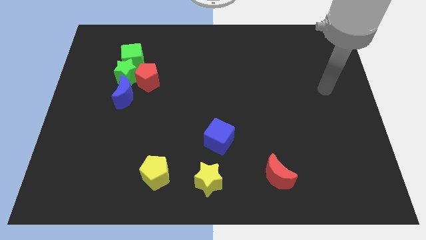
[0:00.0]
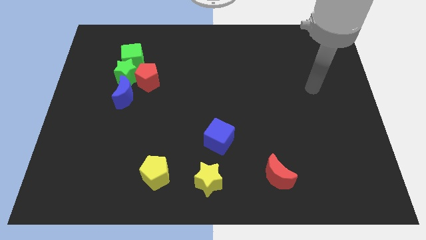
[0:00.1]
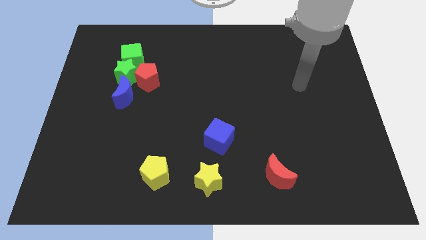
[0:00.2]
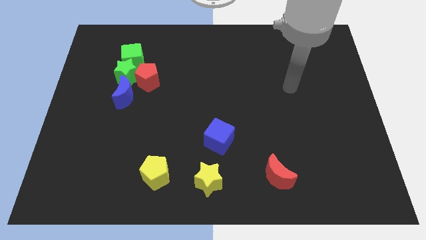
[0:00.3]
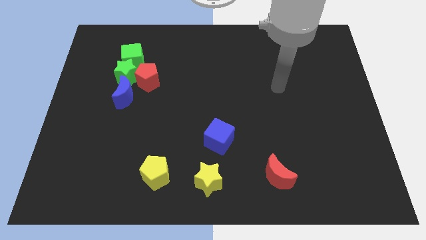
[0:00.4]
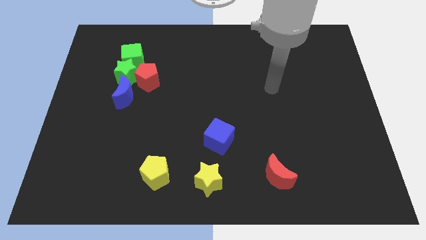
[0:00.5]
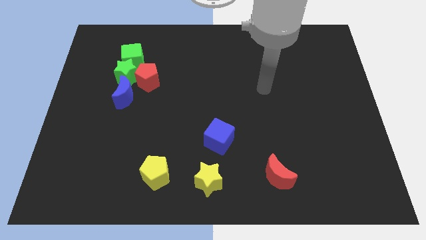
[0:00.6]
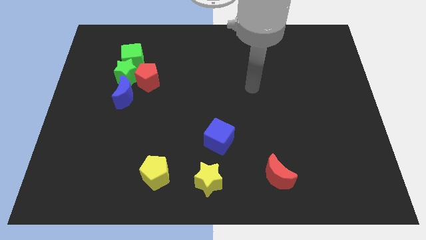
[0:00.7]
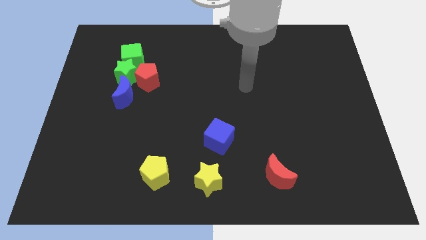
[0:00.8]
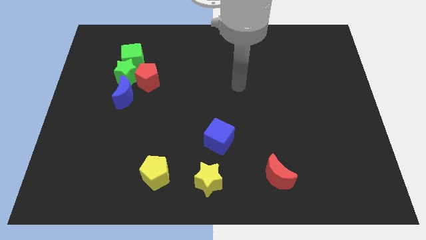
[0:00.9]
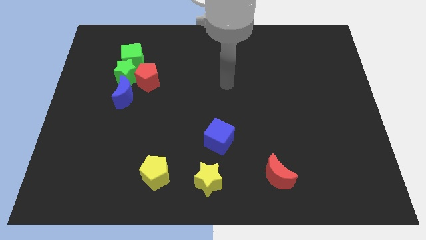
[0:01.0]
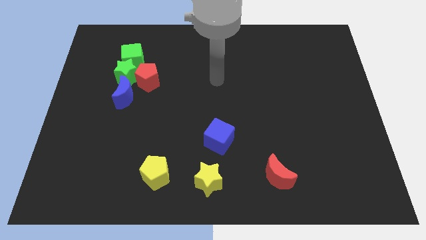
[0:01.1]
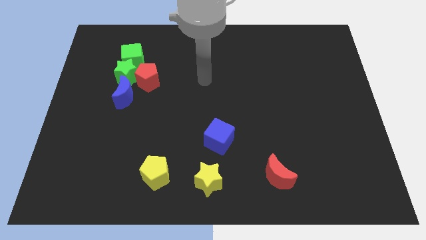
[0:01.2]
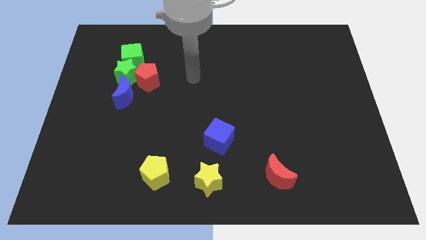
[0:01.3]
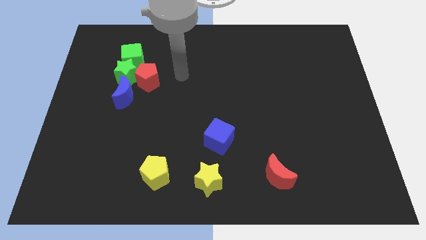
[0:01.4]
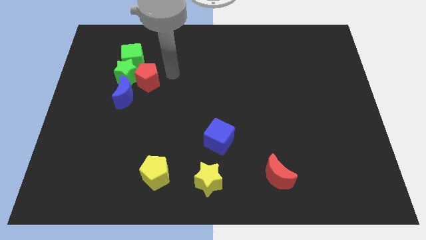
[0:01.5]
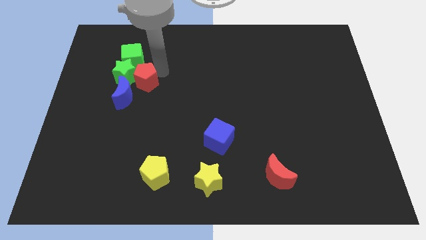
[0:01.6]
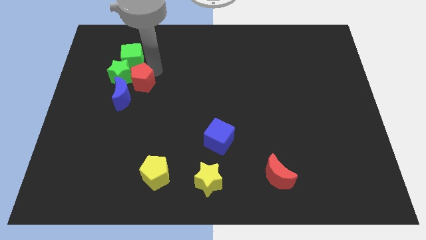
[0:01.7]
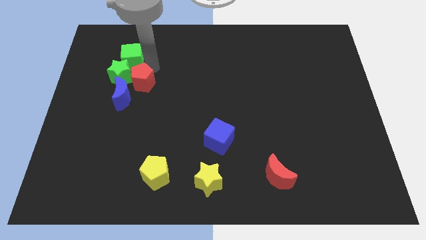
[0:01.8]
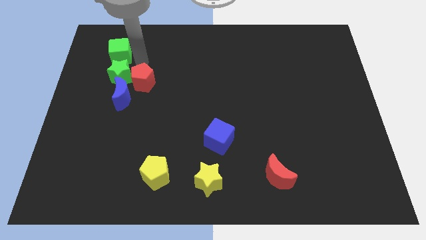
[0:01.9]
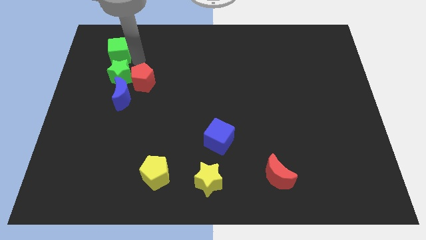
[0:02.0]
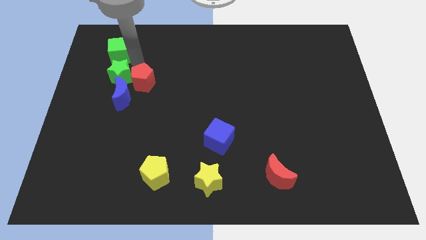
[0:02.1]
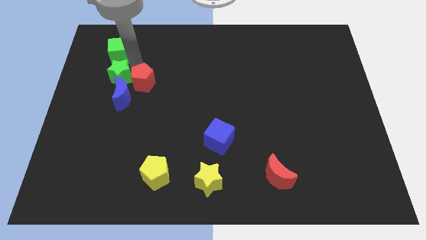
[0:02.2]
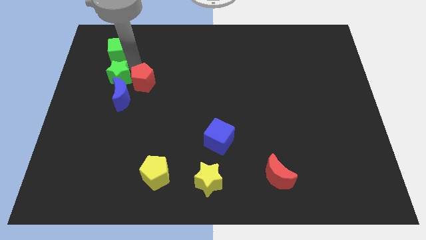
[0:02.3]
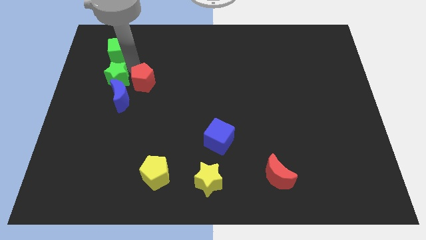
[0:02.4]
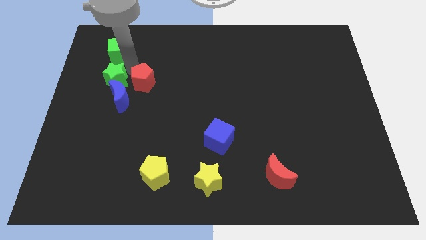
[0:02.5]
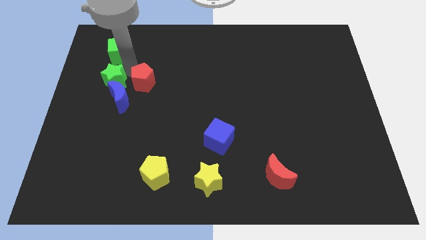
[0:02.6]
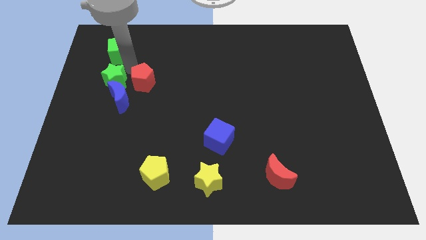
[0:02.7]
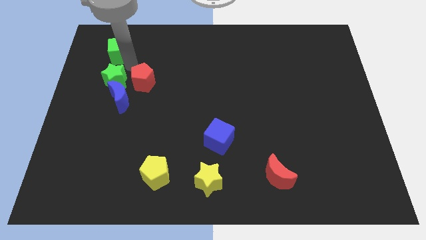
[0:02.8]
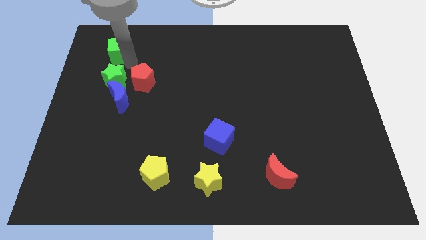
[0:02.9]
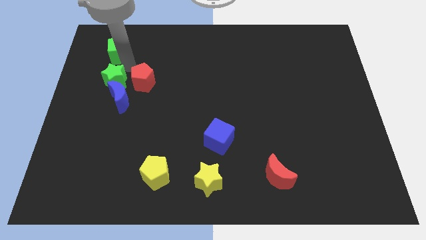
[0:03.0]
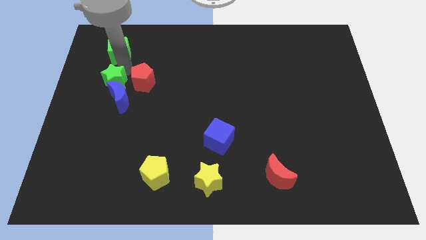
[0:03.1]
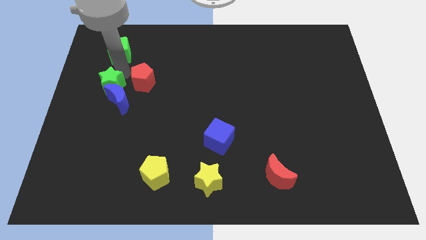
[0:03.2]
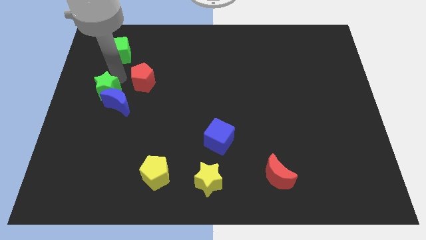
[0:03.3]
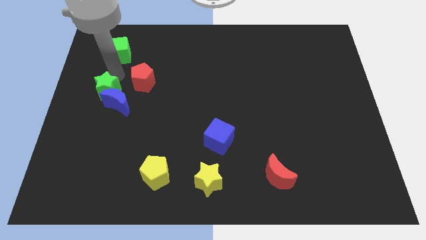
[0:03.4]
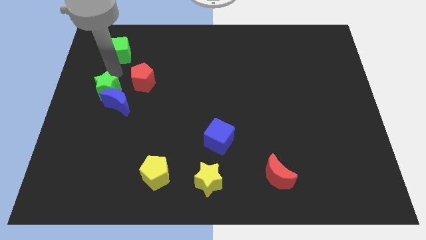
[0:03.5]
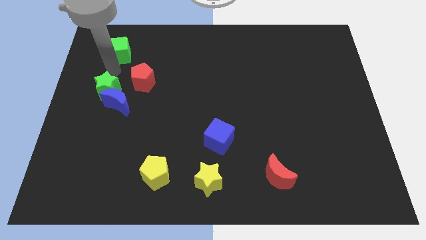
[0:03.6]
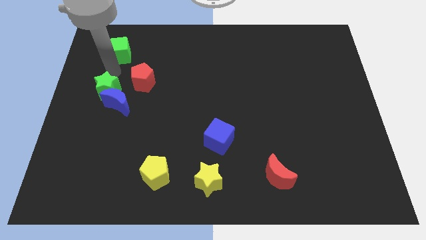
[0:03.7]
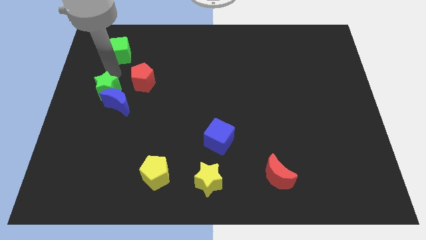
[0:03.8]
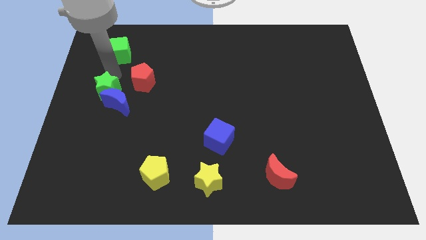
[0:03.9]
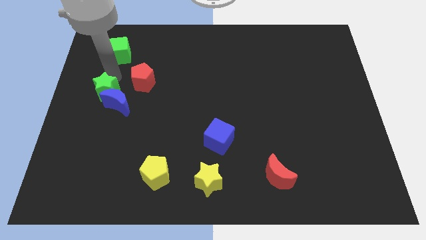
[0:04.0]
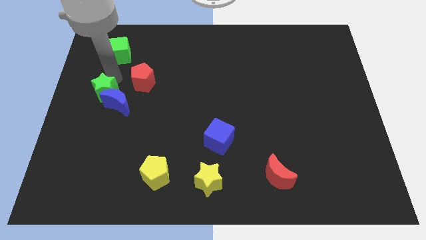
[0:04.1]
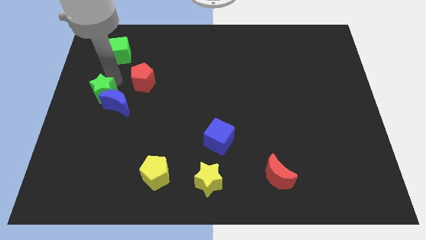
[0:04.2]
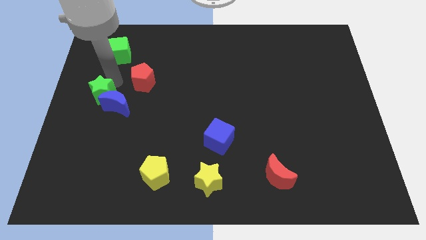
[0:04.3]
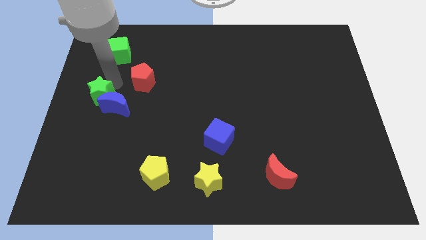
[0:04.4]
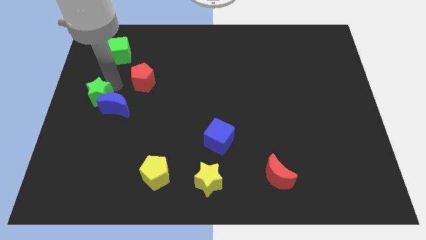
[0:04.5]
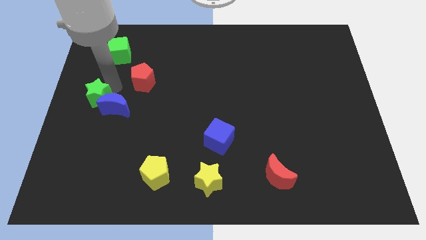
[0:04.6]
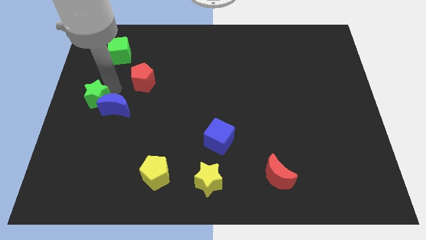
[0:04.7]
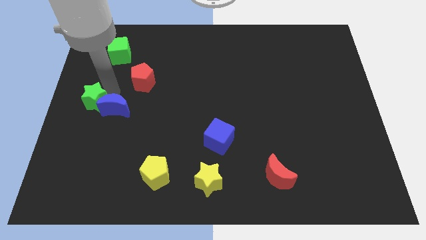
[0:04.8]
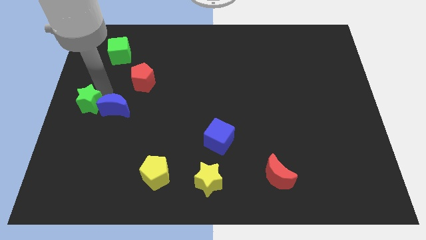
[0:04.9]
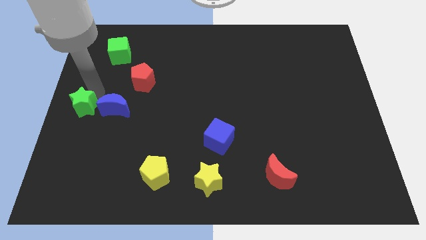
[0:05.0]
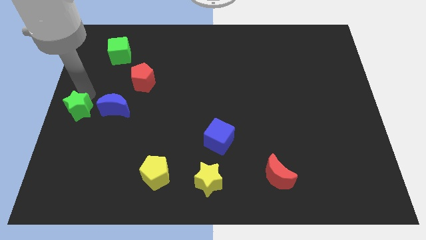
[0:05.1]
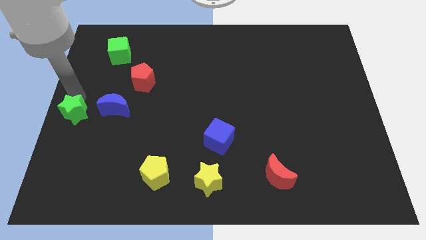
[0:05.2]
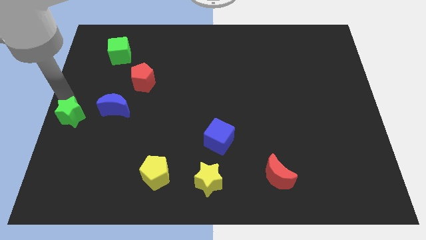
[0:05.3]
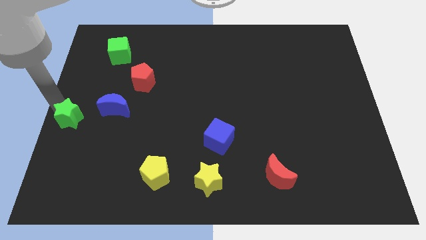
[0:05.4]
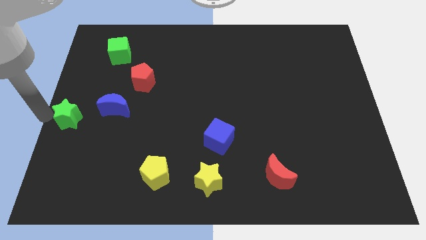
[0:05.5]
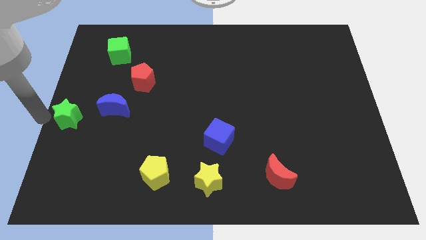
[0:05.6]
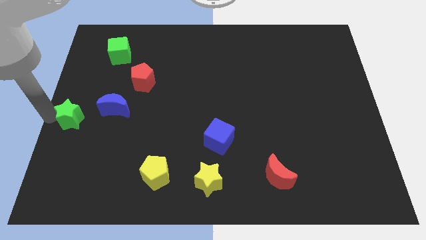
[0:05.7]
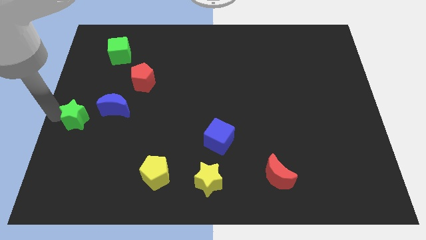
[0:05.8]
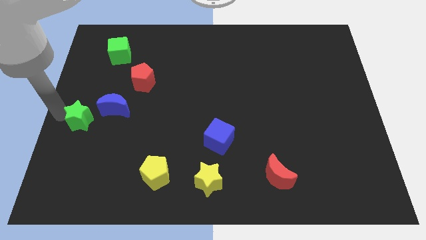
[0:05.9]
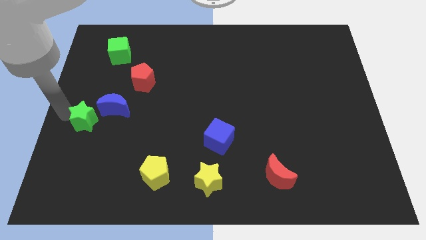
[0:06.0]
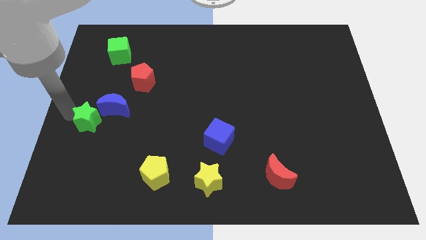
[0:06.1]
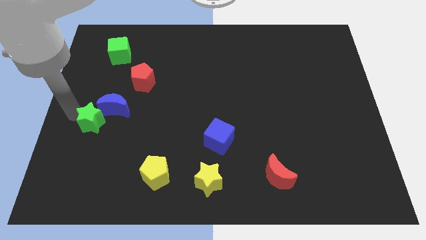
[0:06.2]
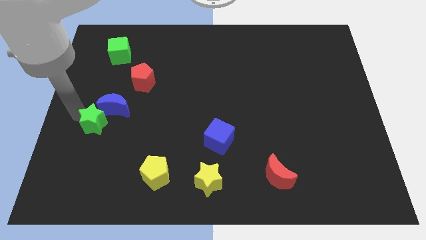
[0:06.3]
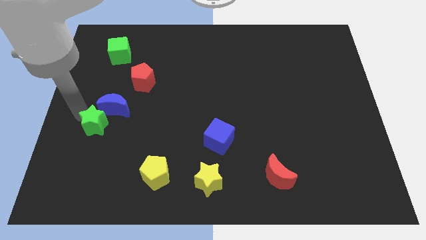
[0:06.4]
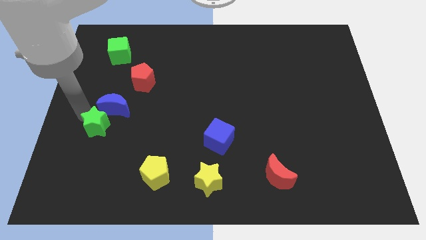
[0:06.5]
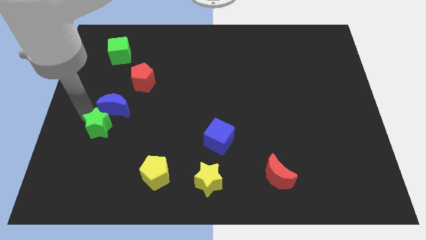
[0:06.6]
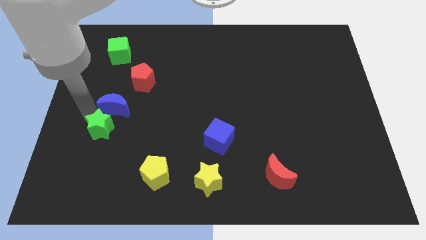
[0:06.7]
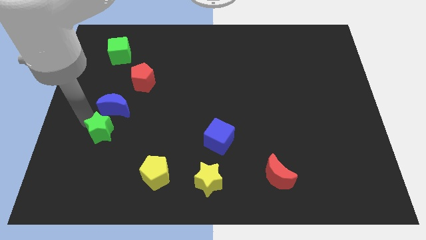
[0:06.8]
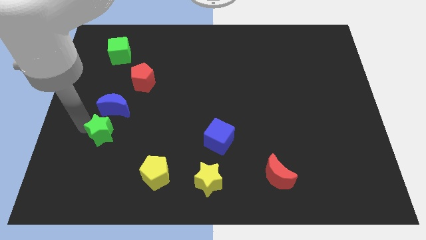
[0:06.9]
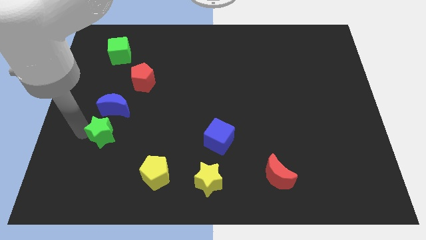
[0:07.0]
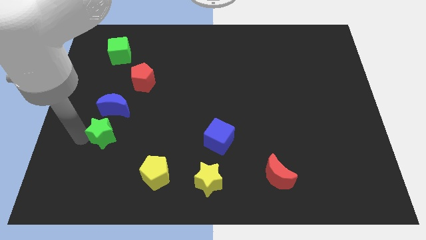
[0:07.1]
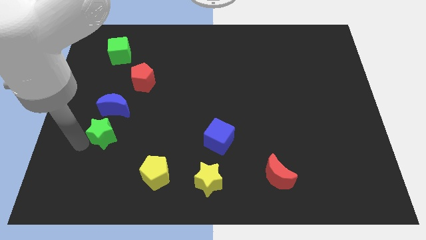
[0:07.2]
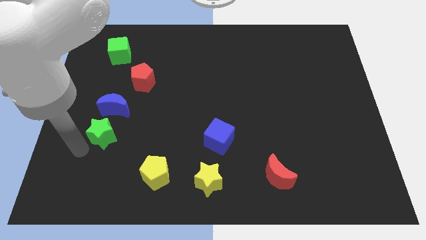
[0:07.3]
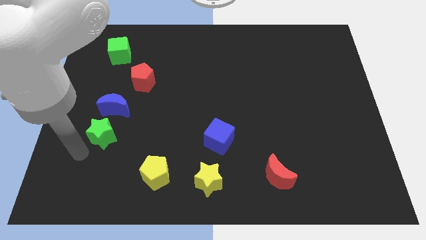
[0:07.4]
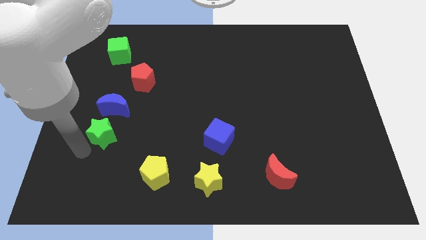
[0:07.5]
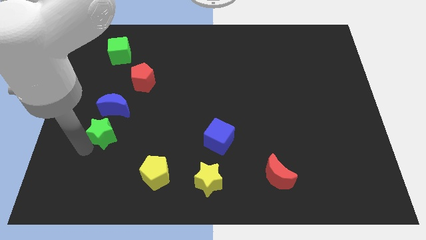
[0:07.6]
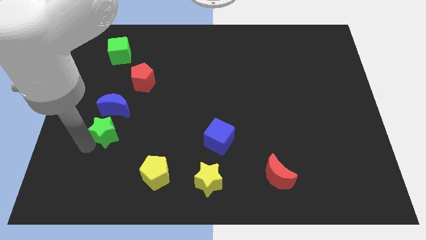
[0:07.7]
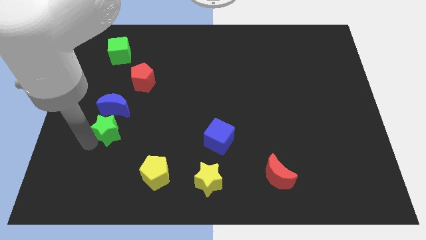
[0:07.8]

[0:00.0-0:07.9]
slide the green star to the bottom right of the blue moon
